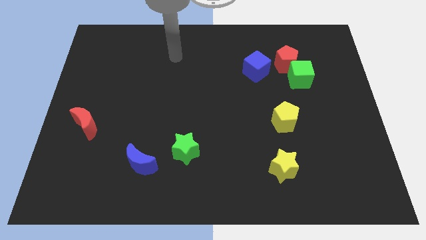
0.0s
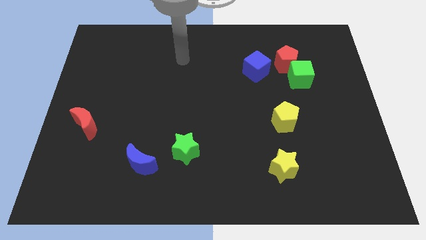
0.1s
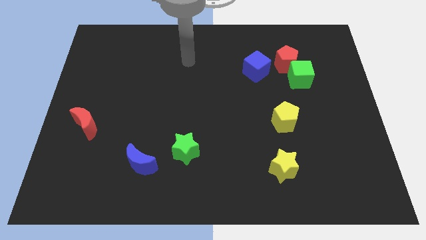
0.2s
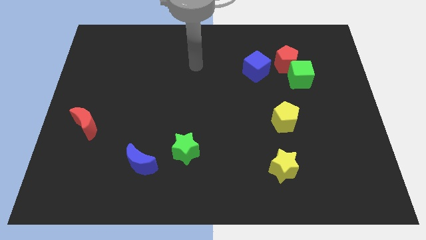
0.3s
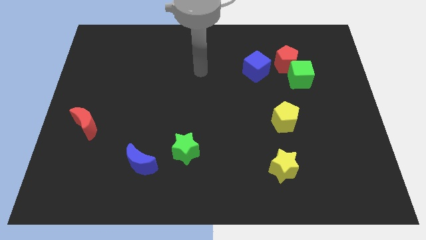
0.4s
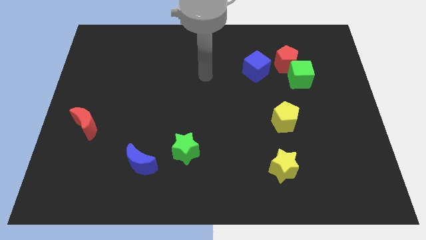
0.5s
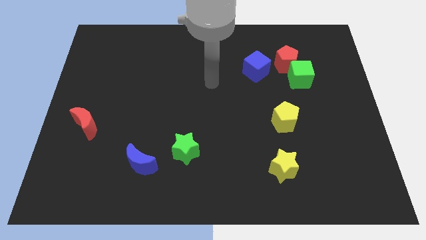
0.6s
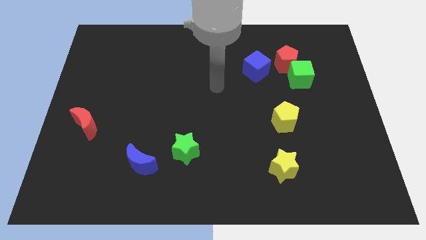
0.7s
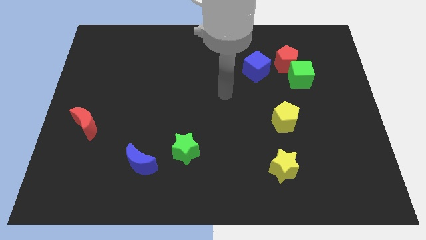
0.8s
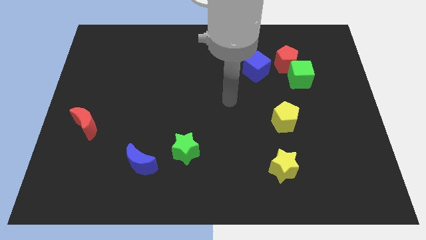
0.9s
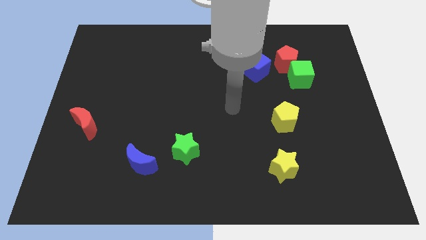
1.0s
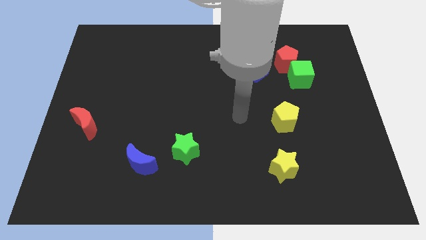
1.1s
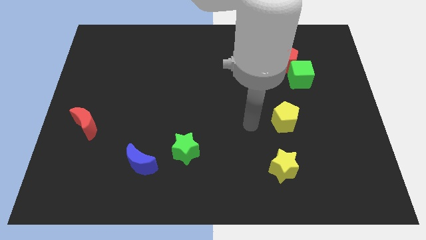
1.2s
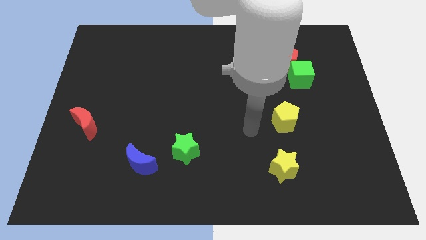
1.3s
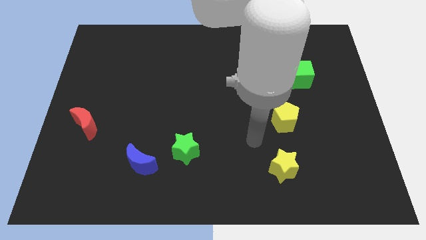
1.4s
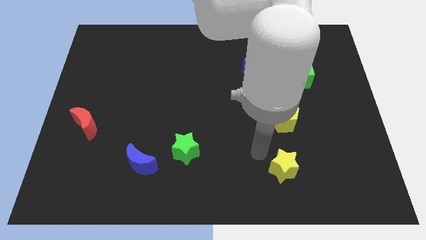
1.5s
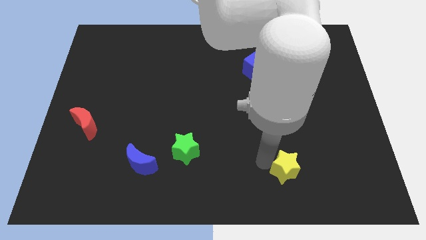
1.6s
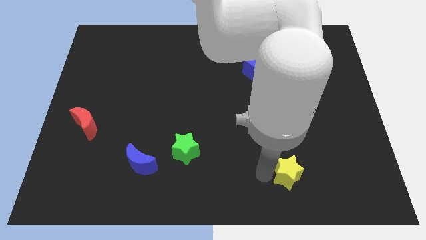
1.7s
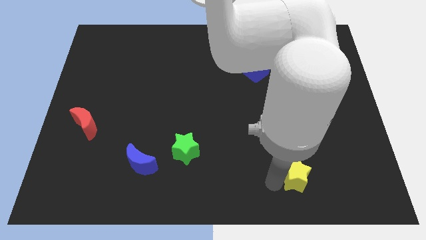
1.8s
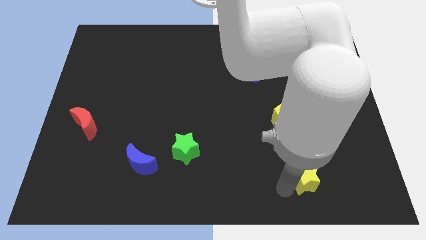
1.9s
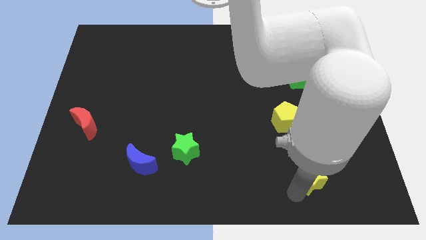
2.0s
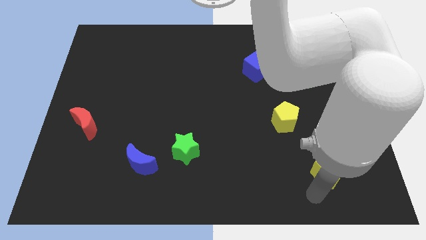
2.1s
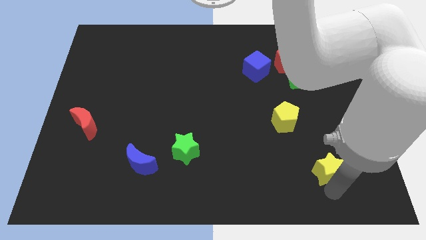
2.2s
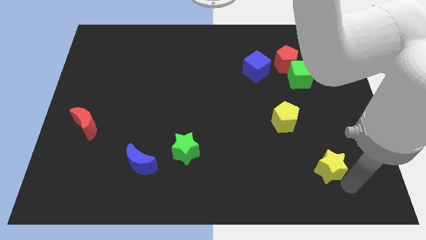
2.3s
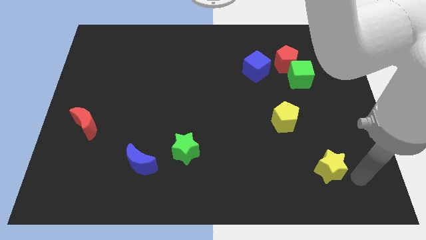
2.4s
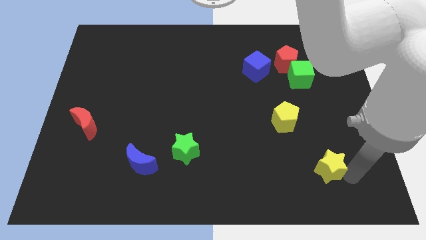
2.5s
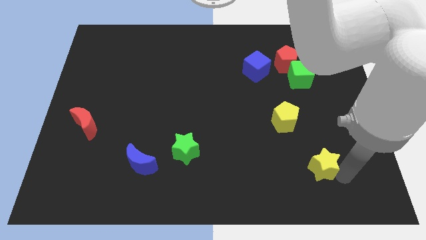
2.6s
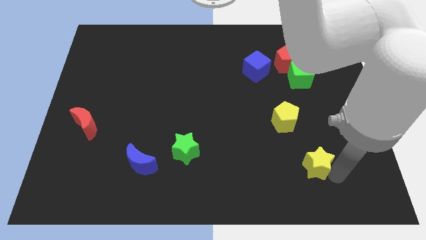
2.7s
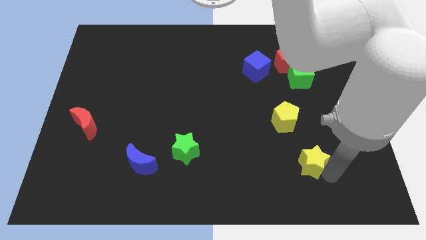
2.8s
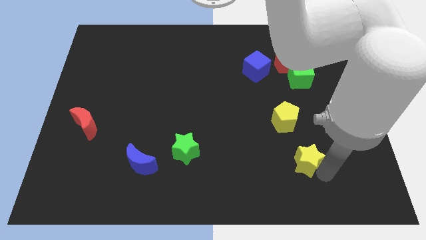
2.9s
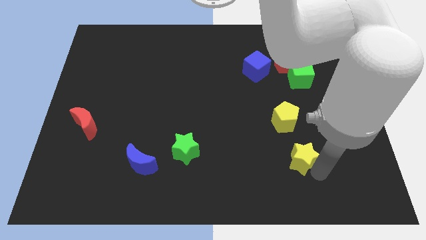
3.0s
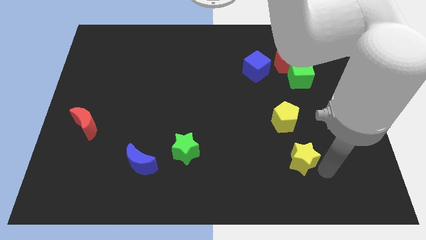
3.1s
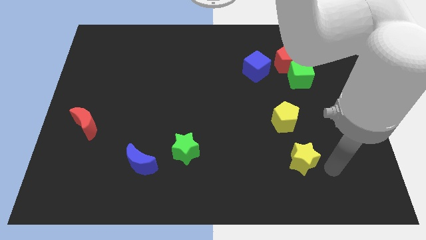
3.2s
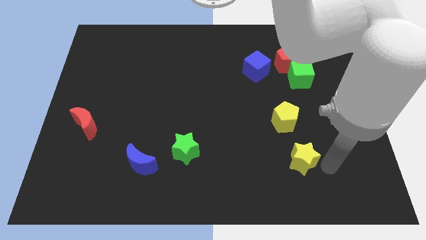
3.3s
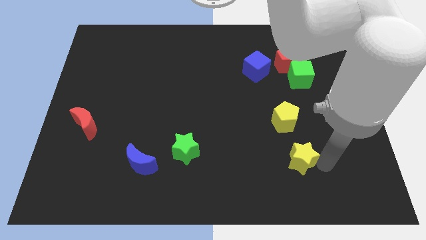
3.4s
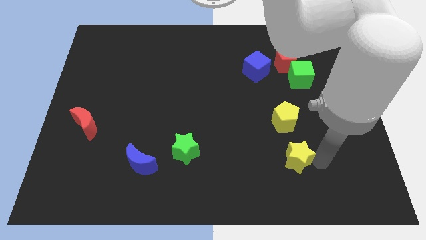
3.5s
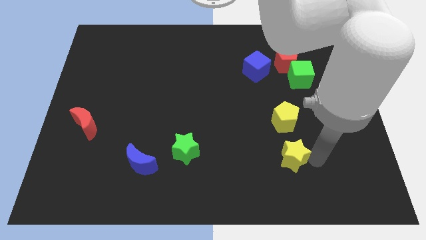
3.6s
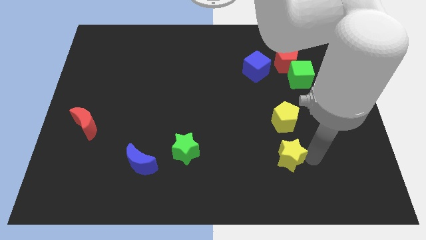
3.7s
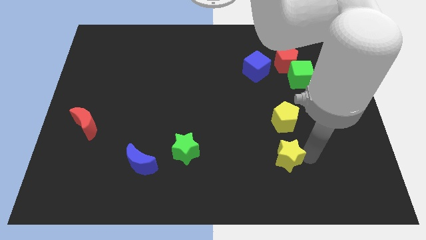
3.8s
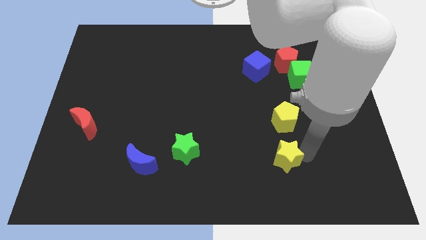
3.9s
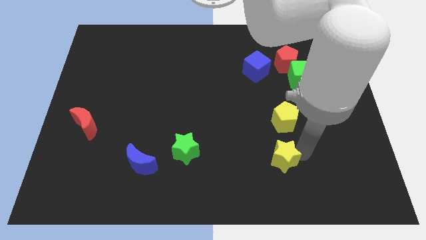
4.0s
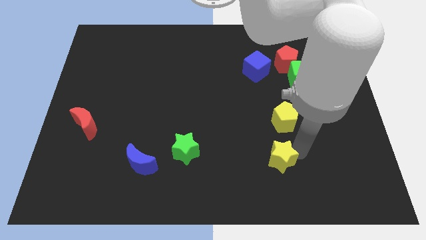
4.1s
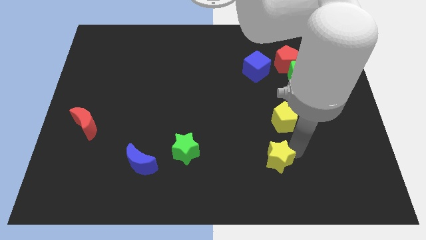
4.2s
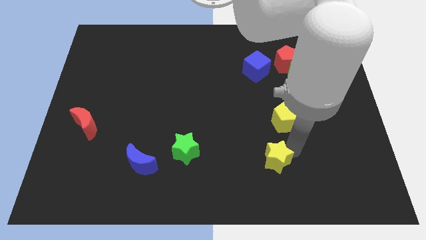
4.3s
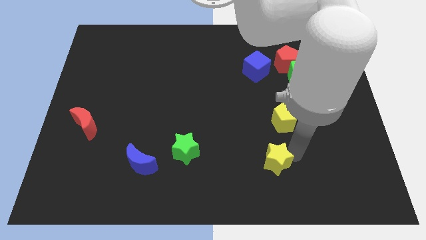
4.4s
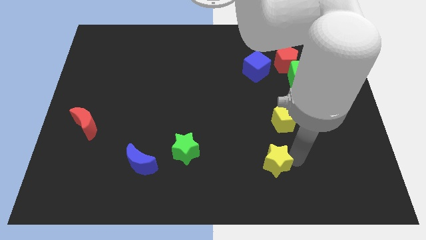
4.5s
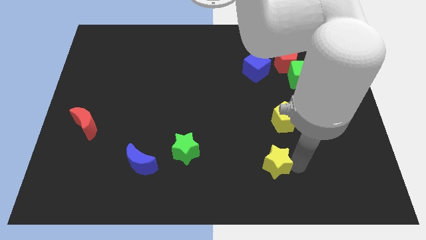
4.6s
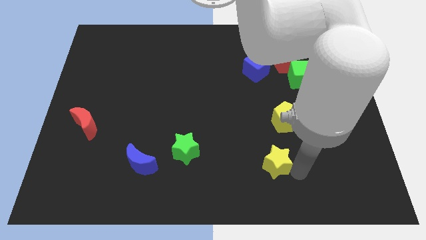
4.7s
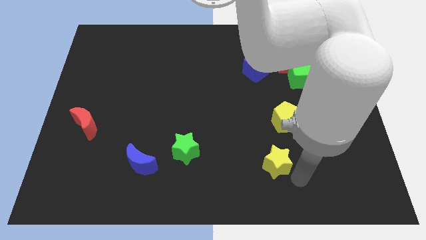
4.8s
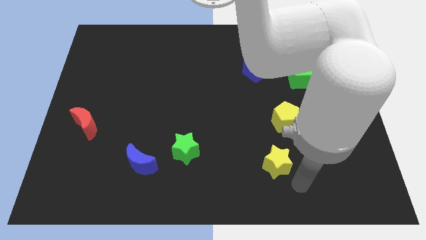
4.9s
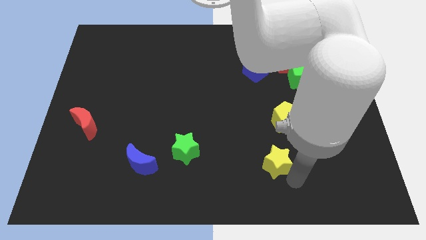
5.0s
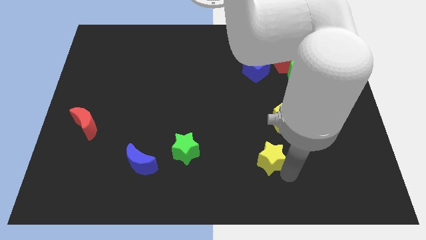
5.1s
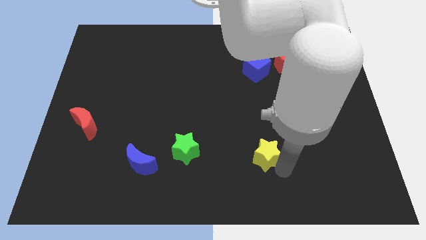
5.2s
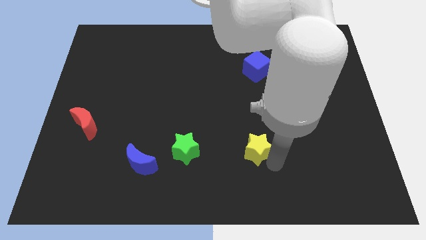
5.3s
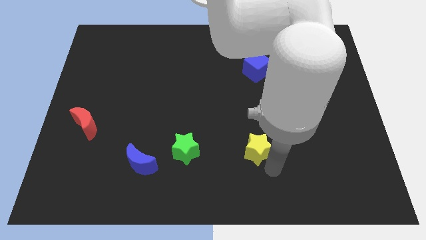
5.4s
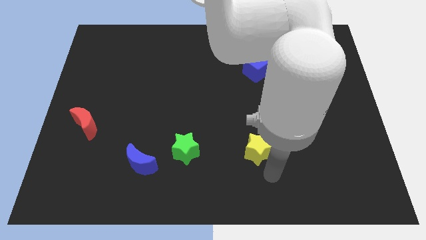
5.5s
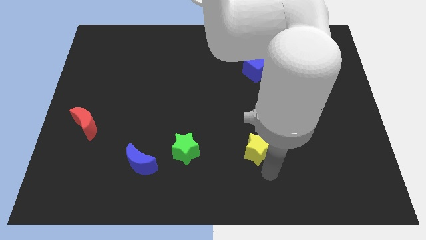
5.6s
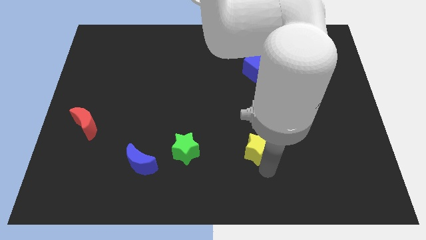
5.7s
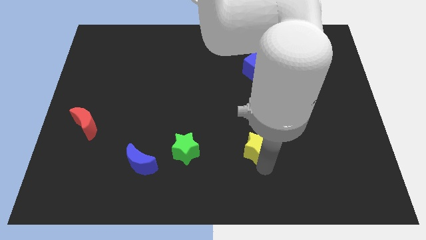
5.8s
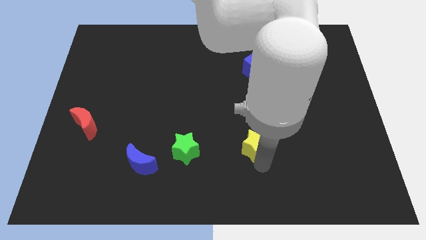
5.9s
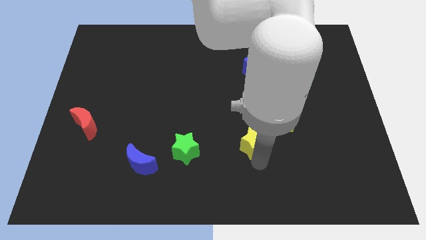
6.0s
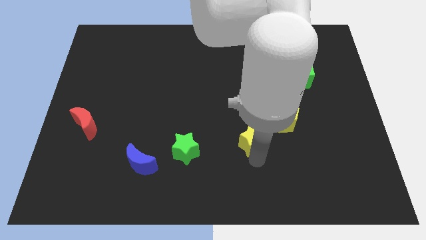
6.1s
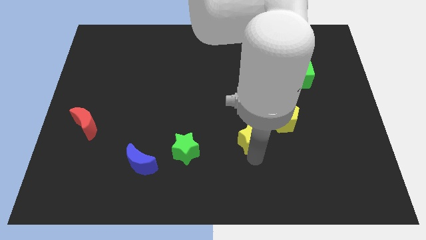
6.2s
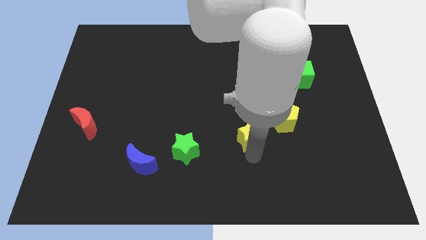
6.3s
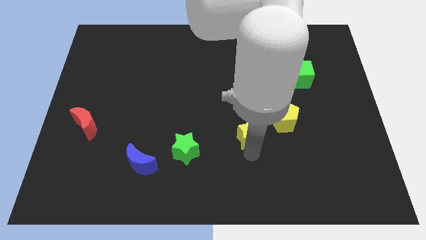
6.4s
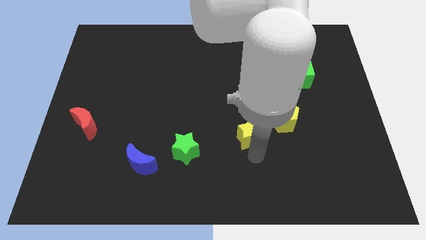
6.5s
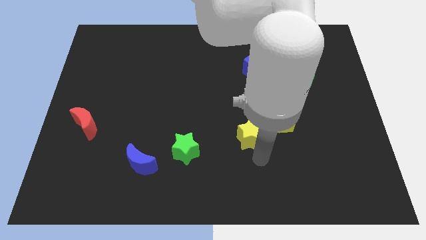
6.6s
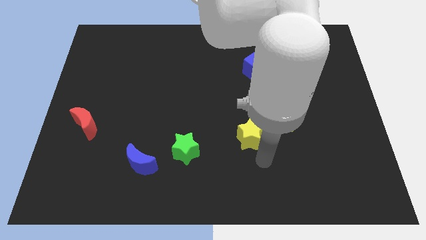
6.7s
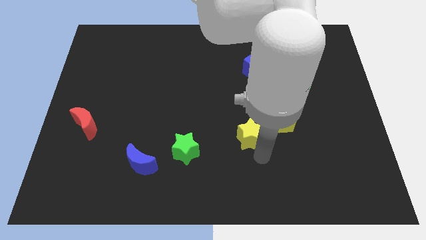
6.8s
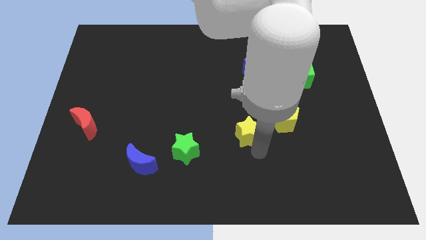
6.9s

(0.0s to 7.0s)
slide the yellow star to the center
